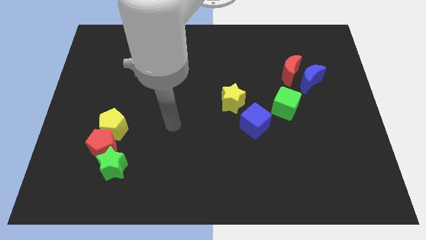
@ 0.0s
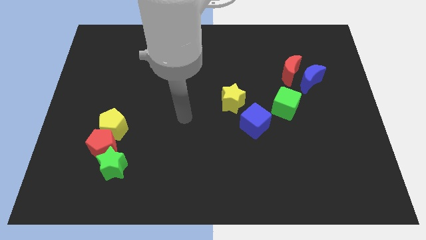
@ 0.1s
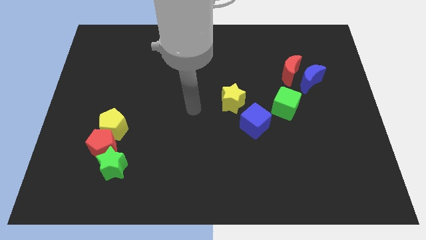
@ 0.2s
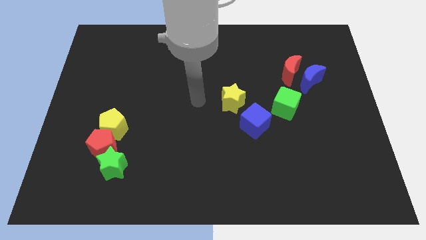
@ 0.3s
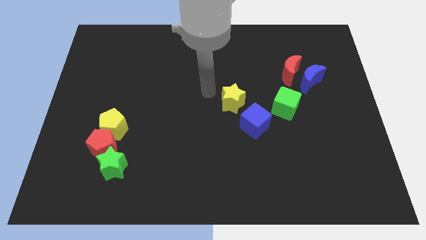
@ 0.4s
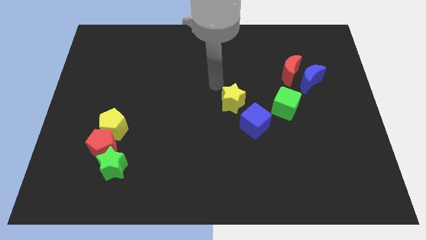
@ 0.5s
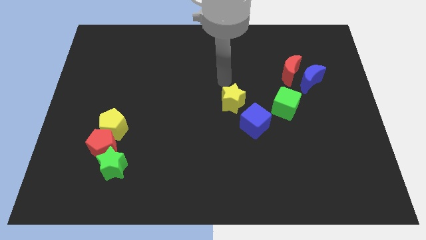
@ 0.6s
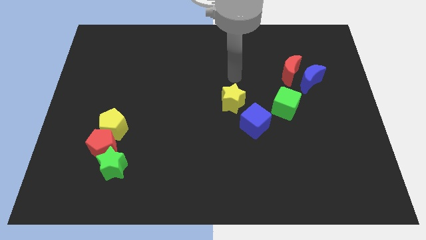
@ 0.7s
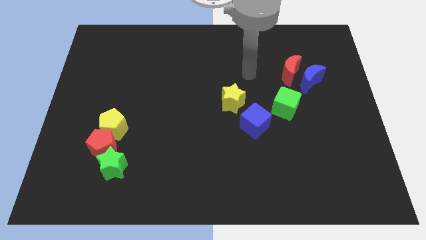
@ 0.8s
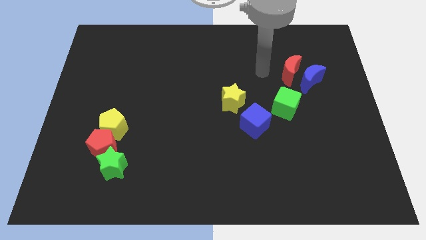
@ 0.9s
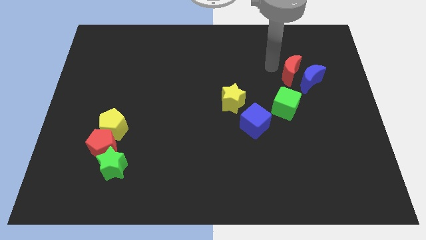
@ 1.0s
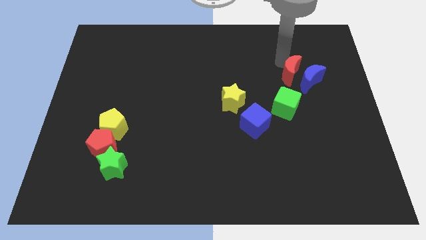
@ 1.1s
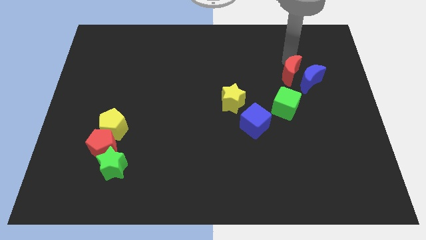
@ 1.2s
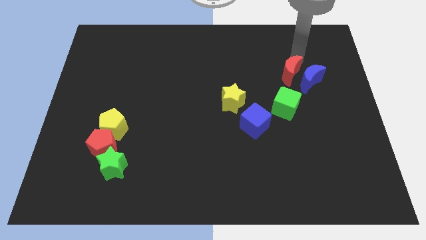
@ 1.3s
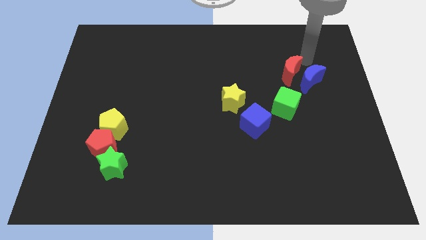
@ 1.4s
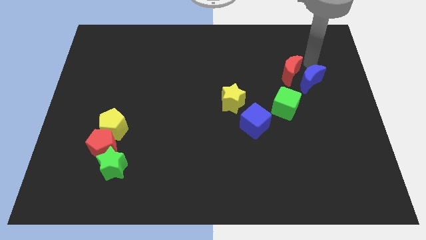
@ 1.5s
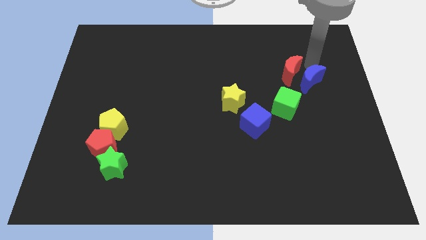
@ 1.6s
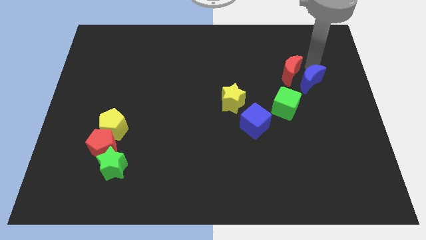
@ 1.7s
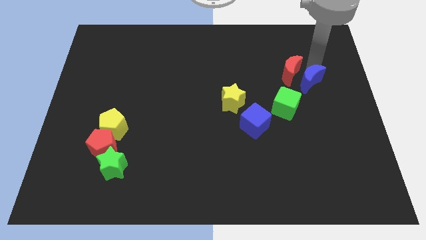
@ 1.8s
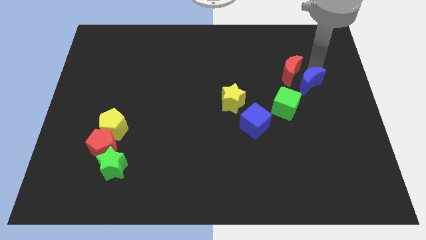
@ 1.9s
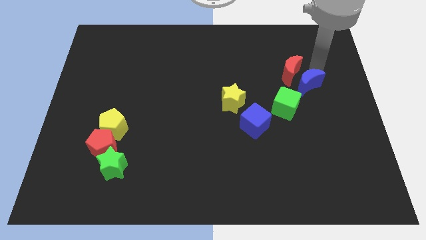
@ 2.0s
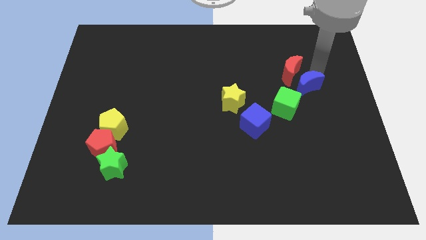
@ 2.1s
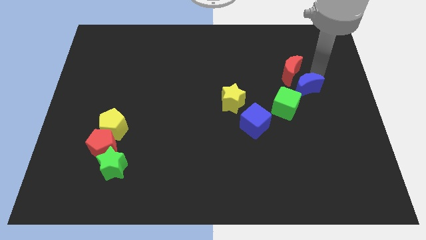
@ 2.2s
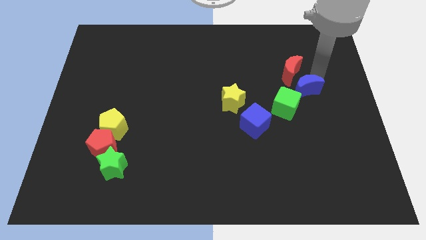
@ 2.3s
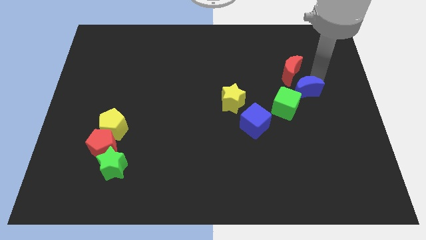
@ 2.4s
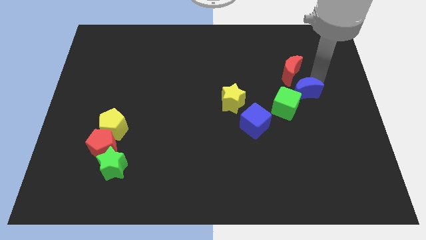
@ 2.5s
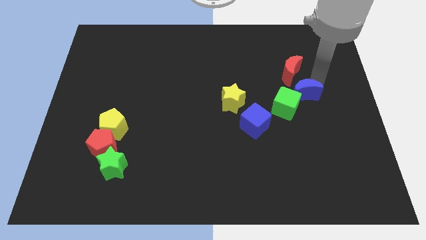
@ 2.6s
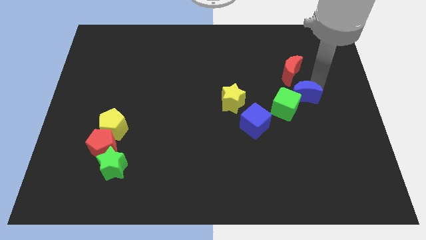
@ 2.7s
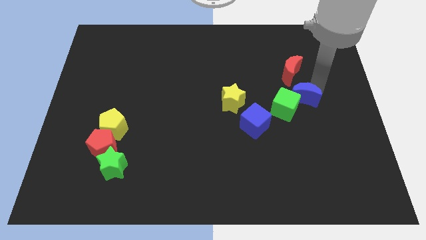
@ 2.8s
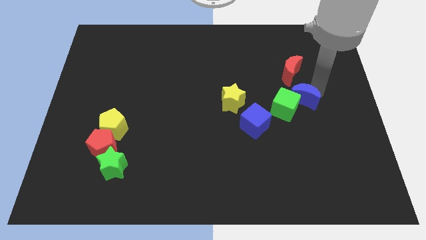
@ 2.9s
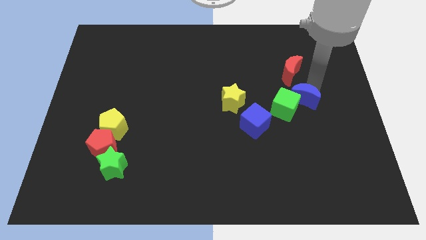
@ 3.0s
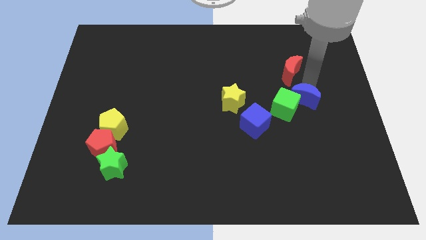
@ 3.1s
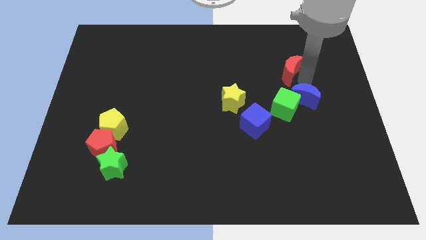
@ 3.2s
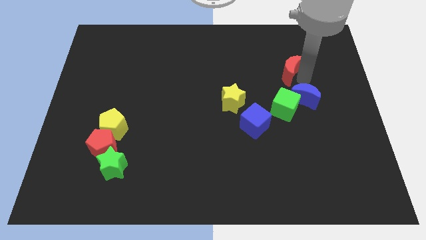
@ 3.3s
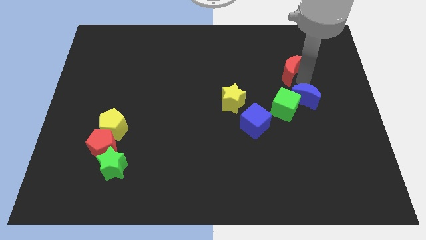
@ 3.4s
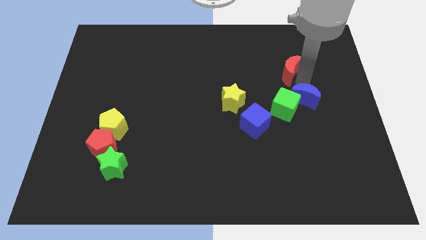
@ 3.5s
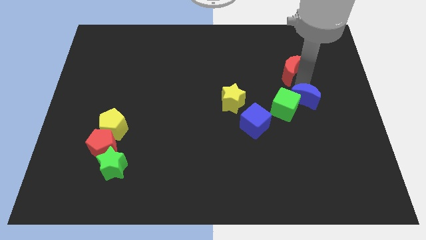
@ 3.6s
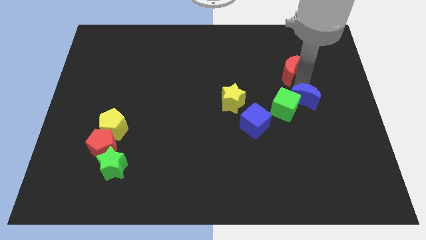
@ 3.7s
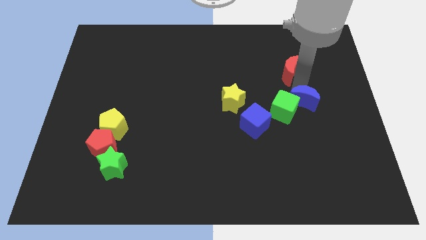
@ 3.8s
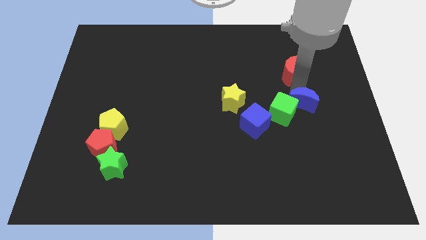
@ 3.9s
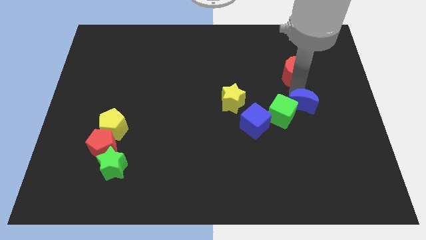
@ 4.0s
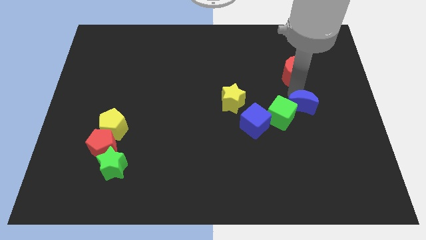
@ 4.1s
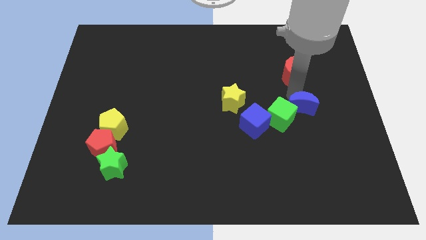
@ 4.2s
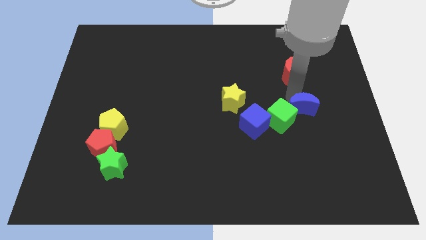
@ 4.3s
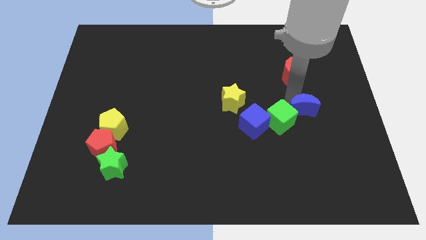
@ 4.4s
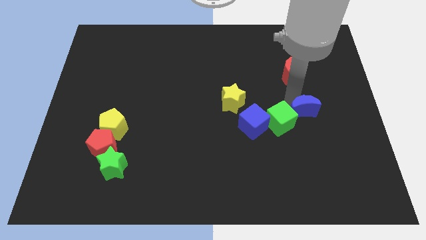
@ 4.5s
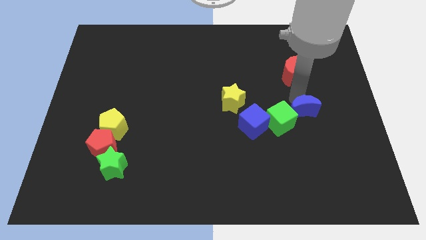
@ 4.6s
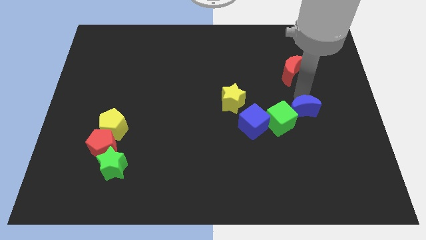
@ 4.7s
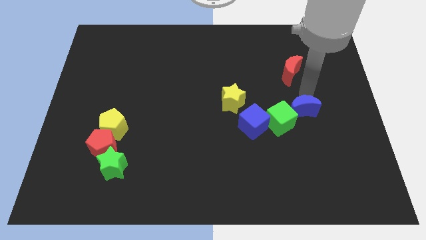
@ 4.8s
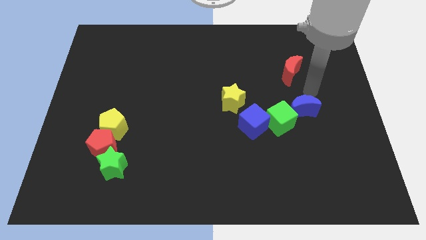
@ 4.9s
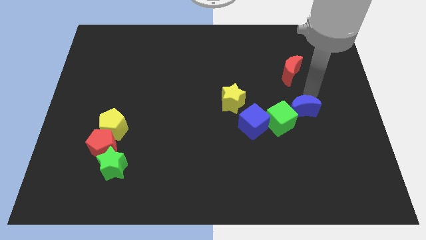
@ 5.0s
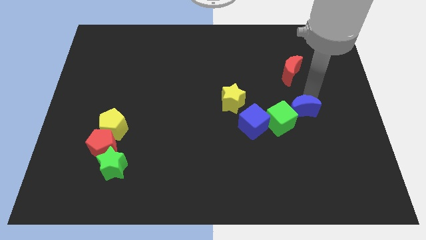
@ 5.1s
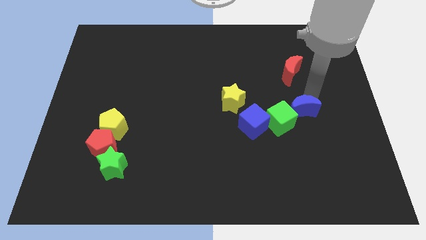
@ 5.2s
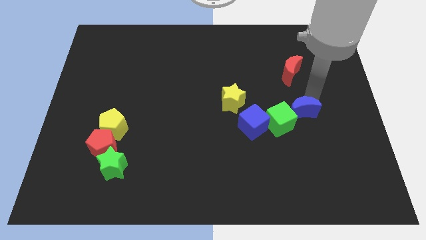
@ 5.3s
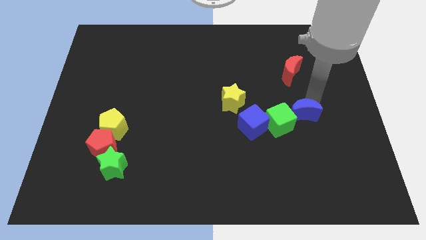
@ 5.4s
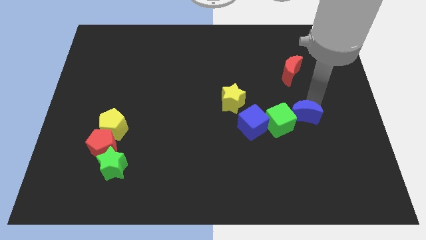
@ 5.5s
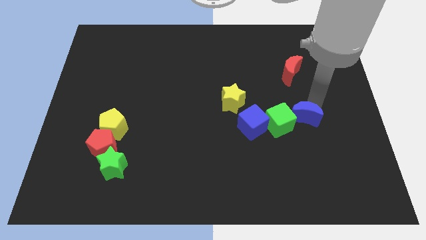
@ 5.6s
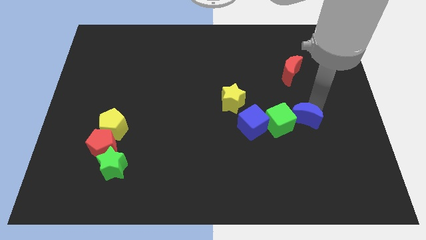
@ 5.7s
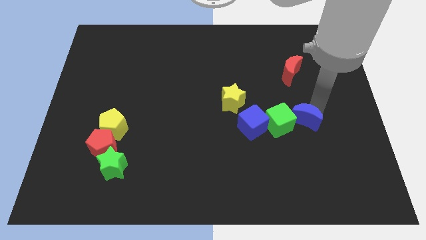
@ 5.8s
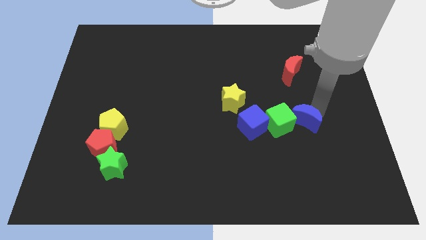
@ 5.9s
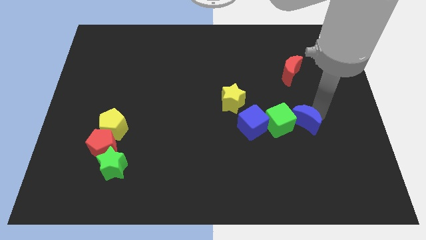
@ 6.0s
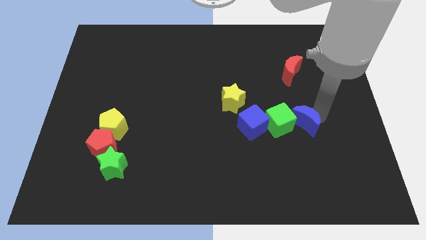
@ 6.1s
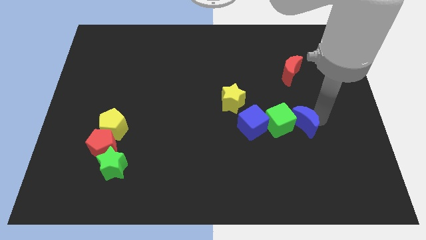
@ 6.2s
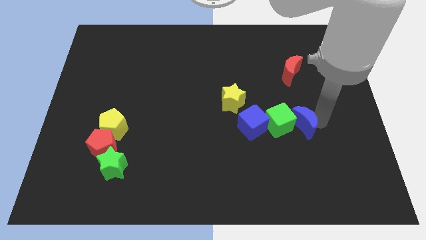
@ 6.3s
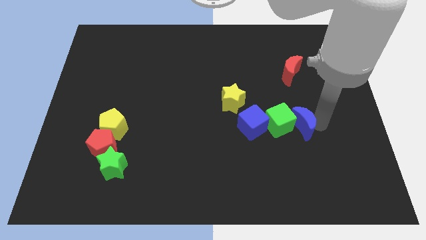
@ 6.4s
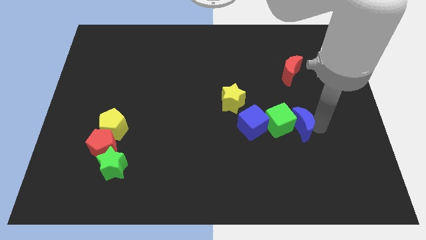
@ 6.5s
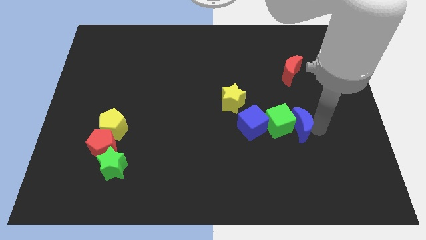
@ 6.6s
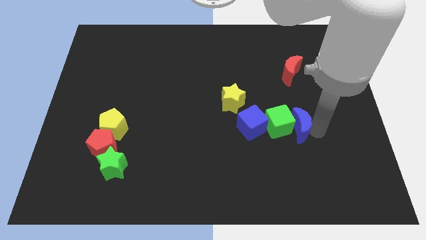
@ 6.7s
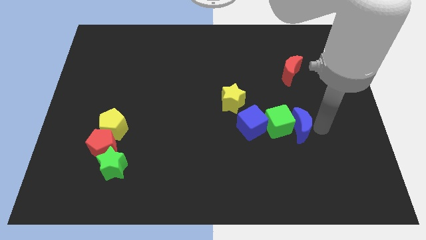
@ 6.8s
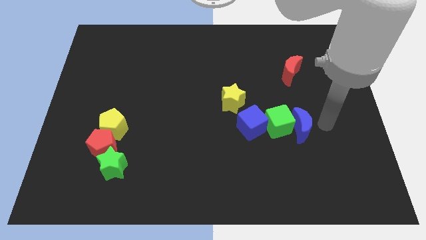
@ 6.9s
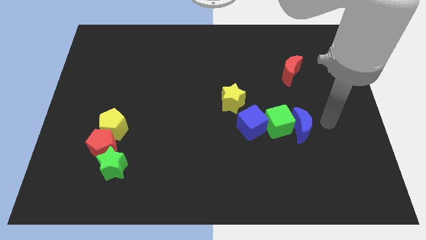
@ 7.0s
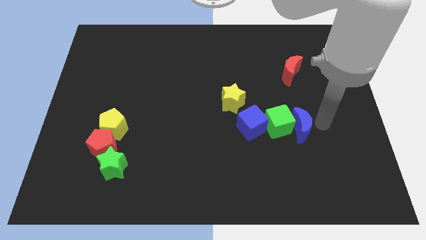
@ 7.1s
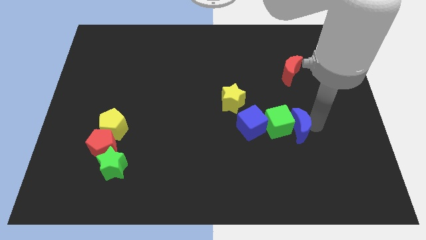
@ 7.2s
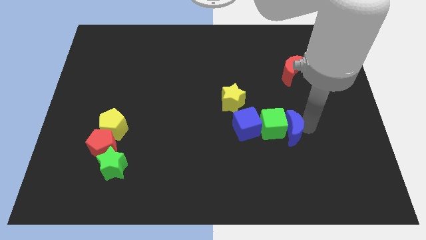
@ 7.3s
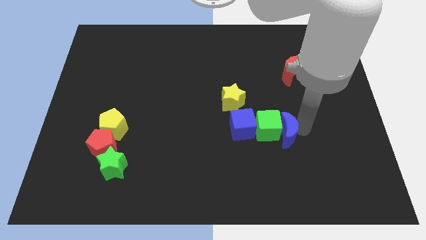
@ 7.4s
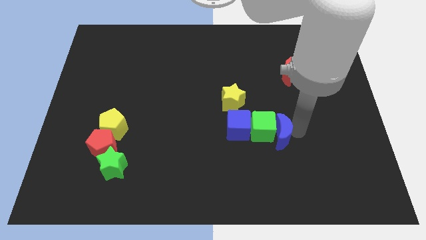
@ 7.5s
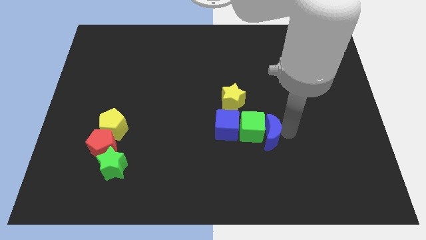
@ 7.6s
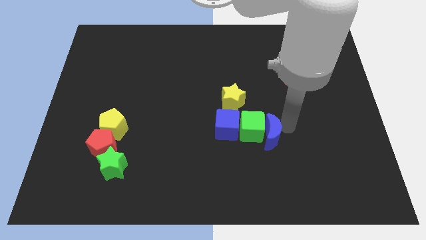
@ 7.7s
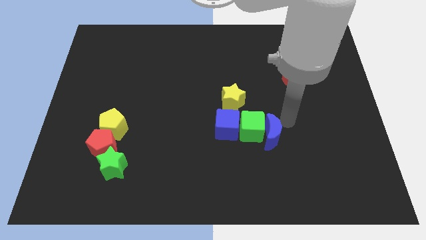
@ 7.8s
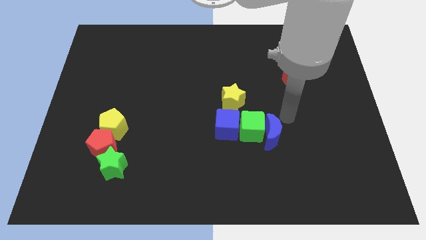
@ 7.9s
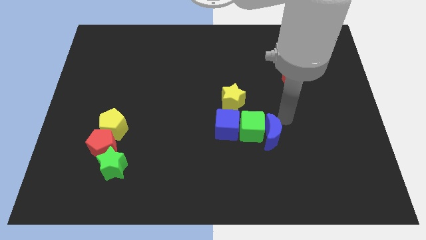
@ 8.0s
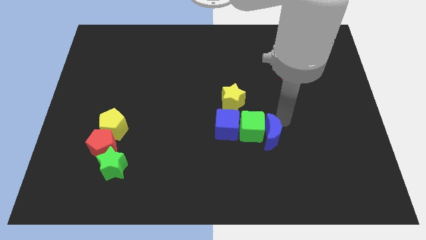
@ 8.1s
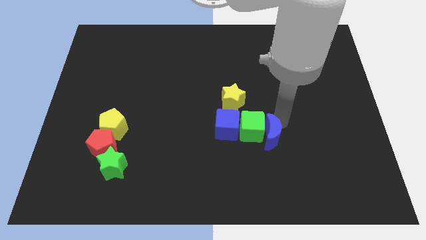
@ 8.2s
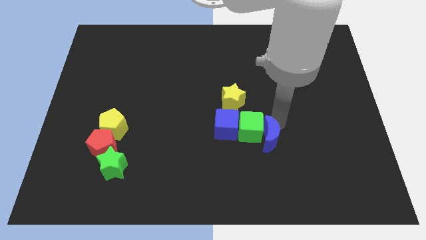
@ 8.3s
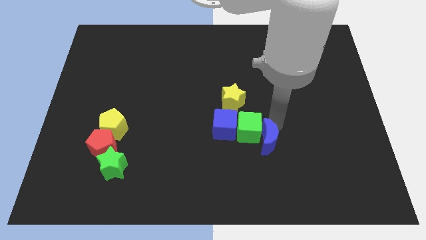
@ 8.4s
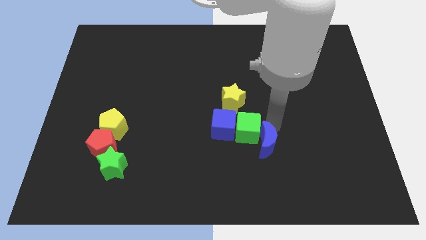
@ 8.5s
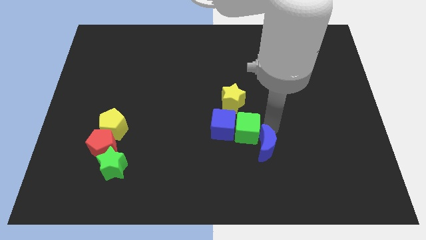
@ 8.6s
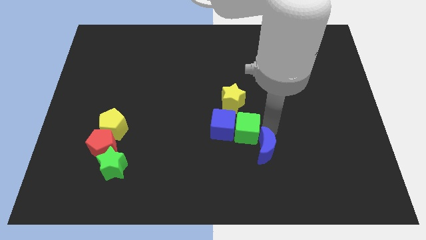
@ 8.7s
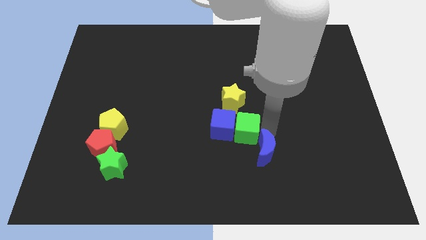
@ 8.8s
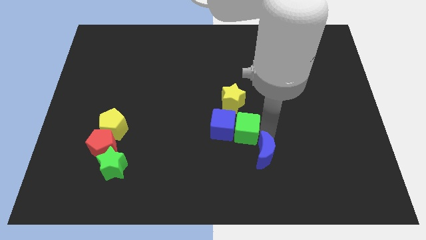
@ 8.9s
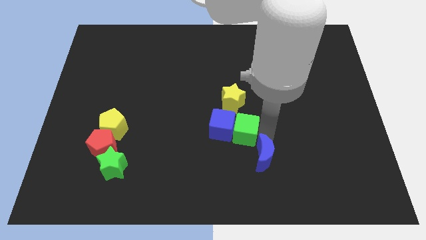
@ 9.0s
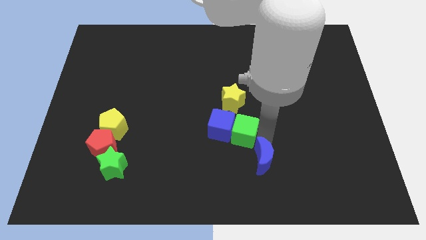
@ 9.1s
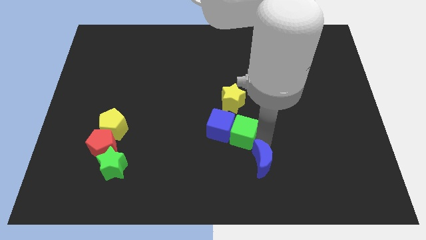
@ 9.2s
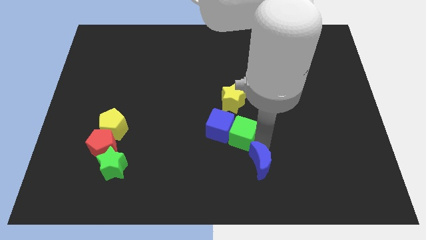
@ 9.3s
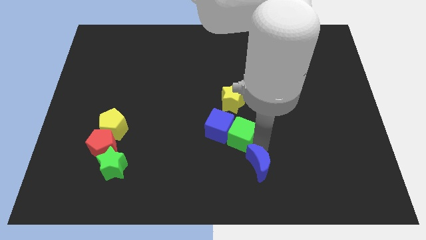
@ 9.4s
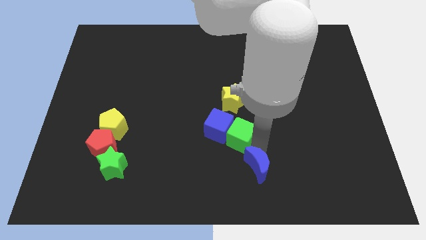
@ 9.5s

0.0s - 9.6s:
put the blue moon to the bottom
